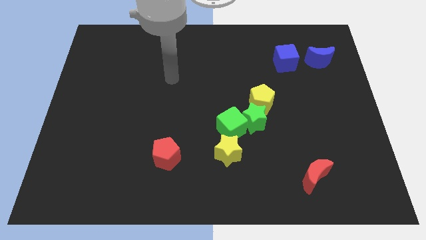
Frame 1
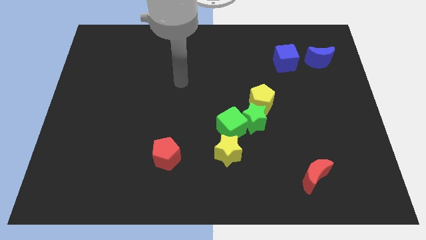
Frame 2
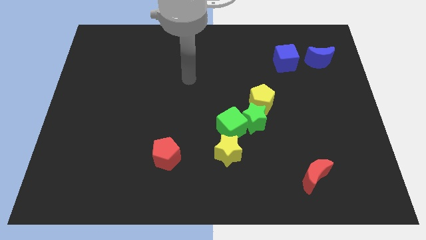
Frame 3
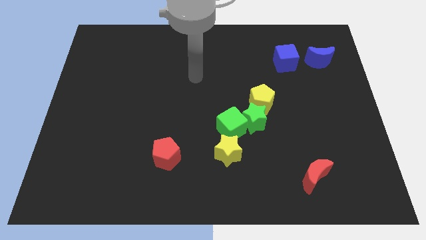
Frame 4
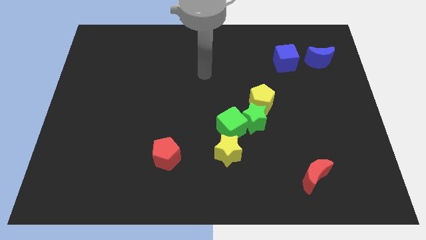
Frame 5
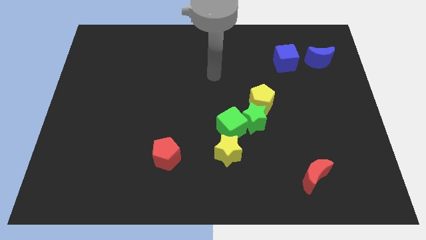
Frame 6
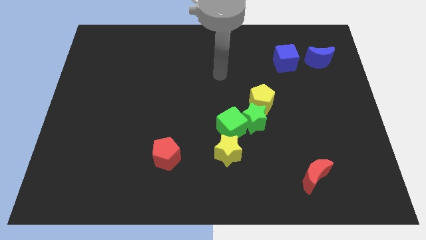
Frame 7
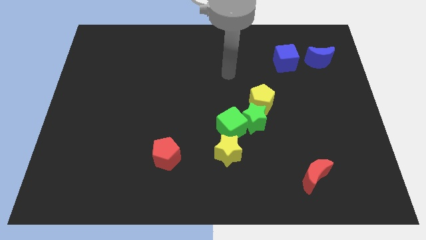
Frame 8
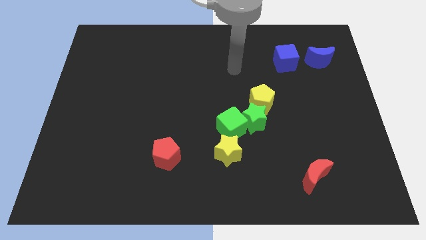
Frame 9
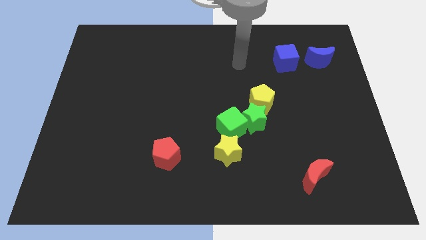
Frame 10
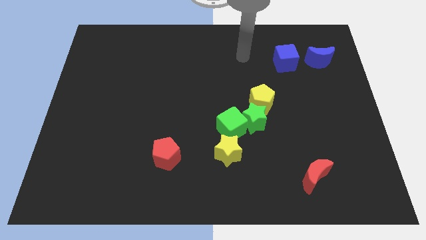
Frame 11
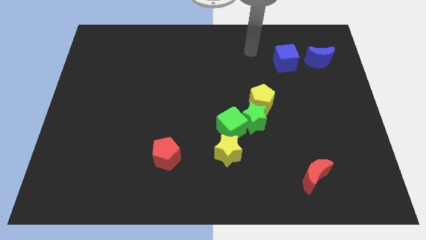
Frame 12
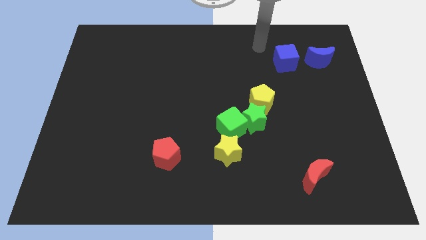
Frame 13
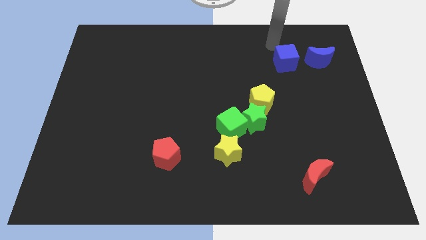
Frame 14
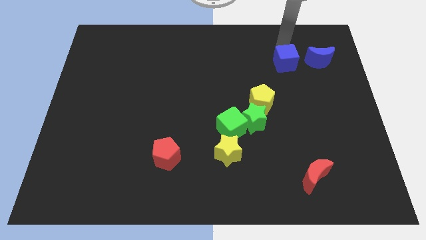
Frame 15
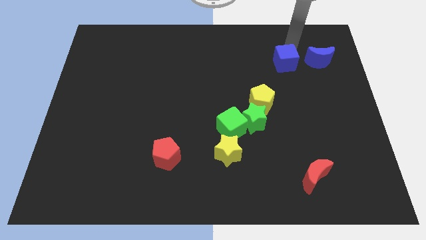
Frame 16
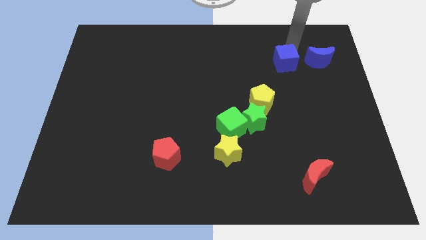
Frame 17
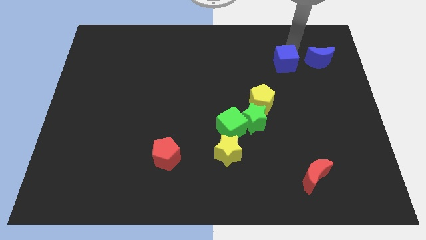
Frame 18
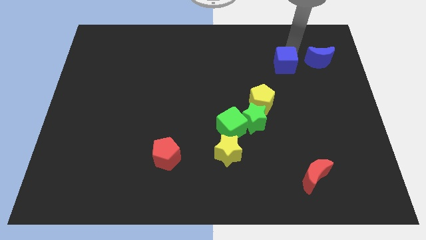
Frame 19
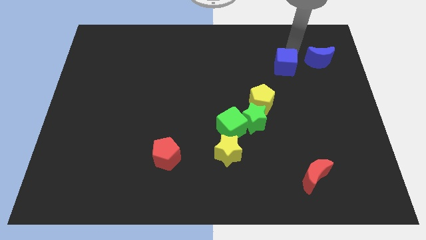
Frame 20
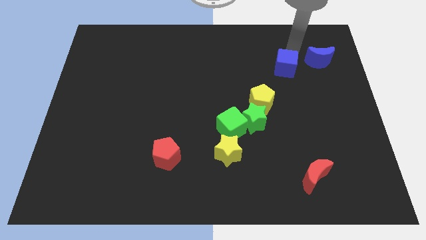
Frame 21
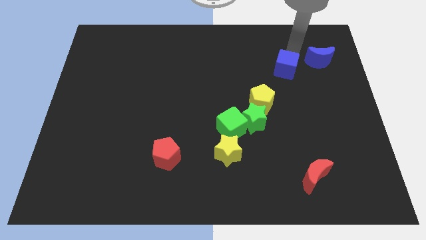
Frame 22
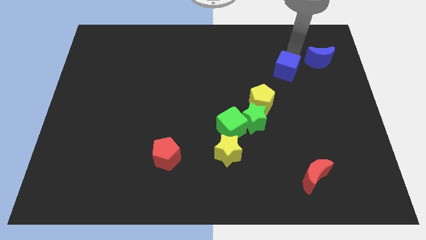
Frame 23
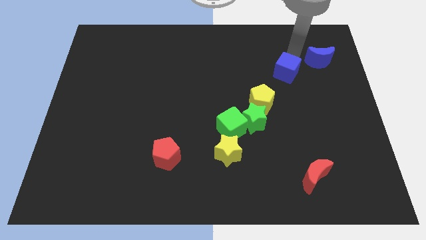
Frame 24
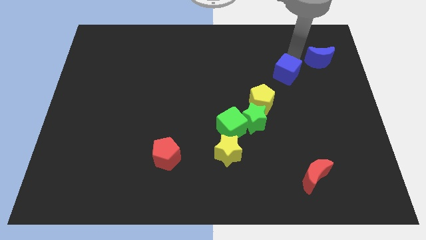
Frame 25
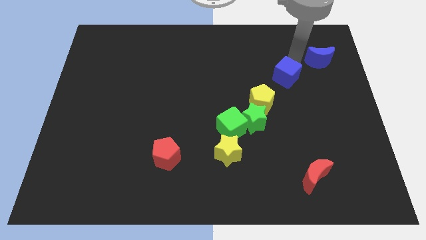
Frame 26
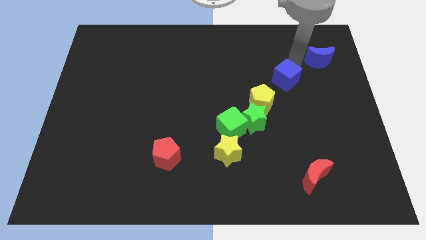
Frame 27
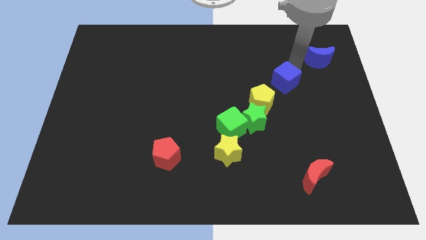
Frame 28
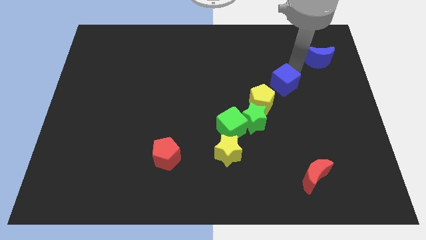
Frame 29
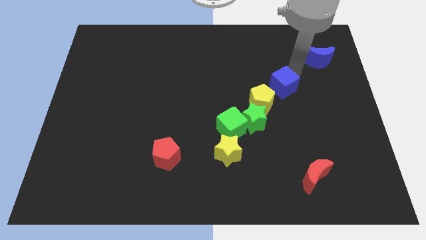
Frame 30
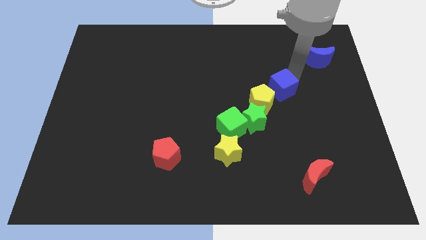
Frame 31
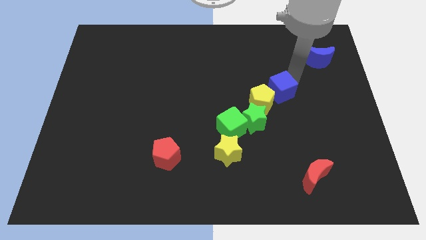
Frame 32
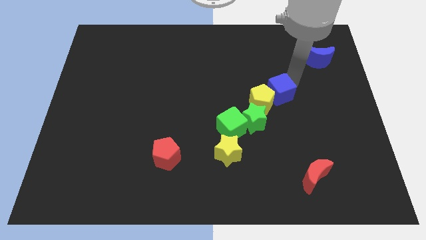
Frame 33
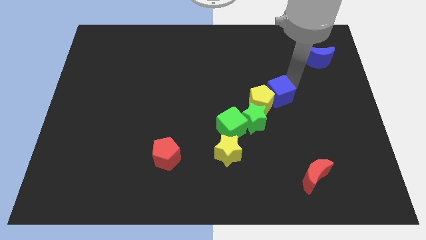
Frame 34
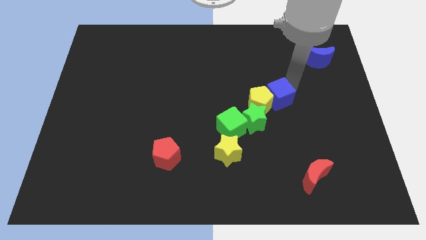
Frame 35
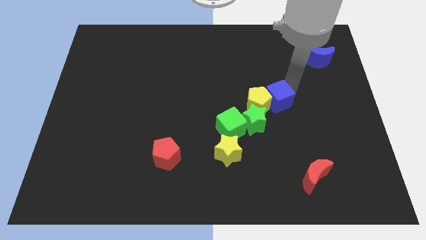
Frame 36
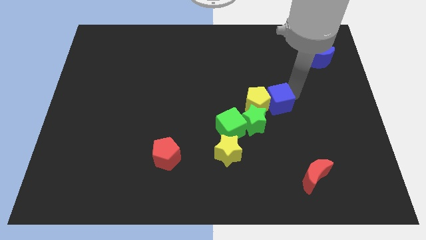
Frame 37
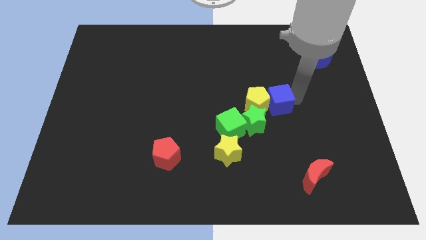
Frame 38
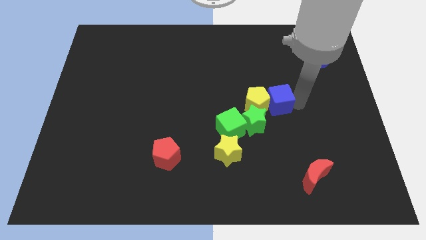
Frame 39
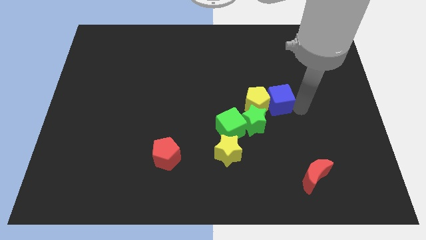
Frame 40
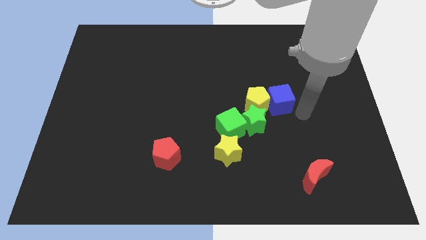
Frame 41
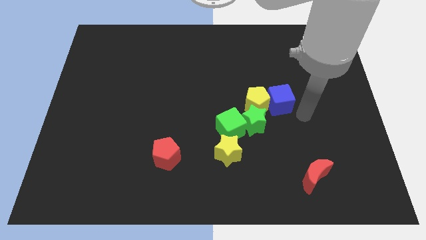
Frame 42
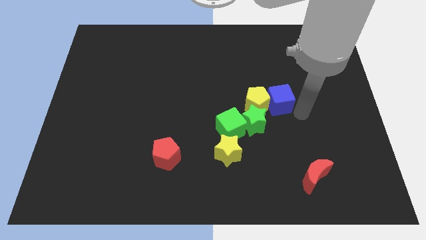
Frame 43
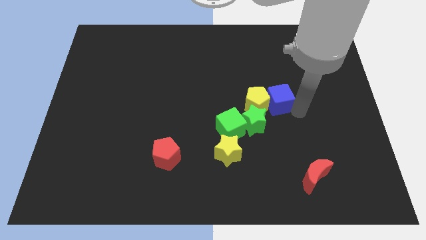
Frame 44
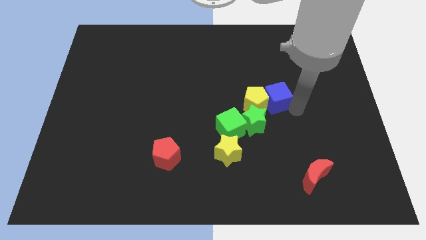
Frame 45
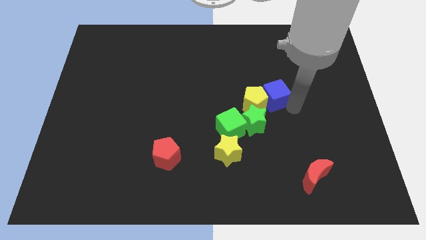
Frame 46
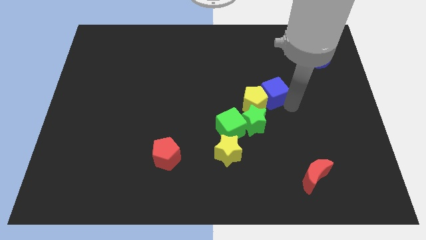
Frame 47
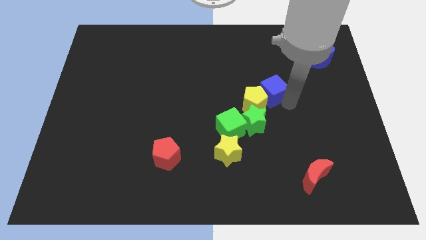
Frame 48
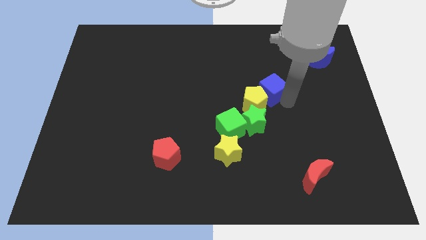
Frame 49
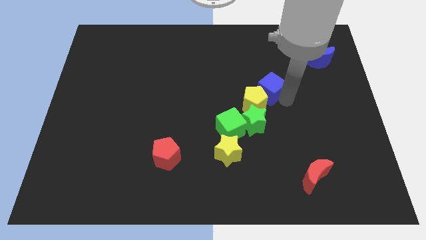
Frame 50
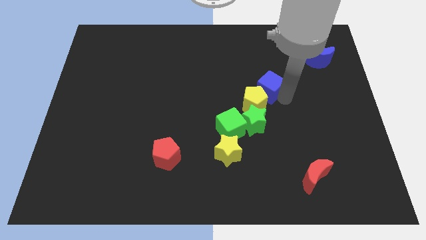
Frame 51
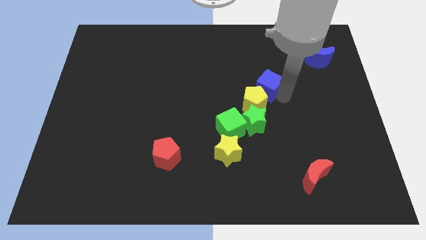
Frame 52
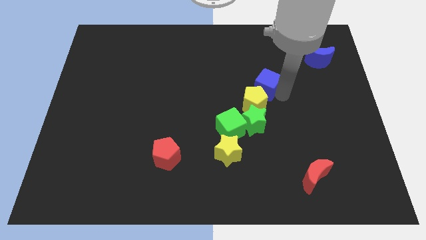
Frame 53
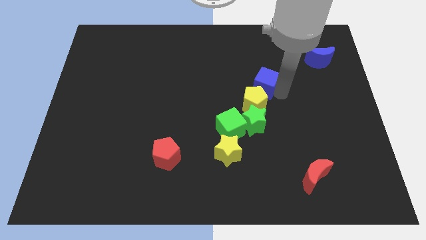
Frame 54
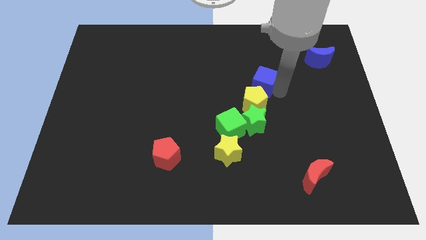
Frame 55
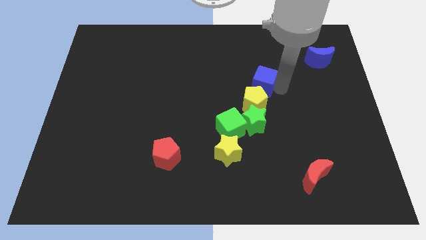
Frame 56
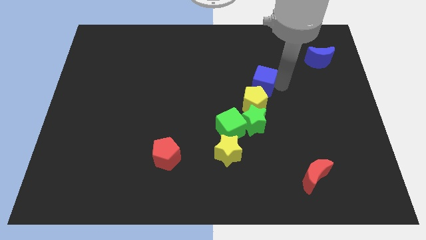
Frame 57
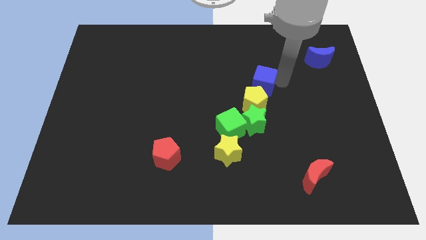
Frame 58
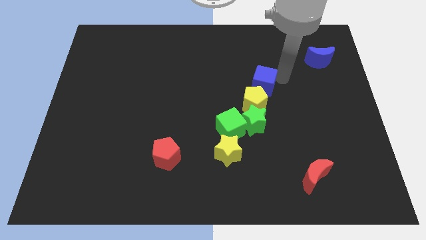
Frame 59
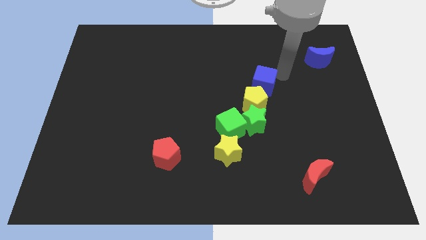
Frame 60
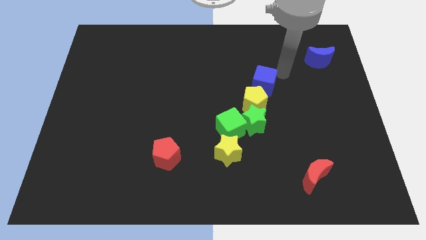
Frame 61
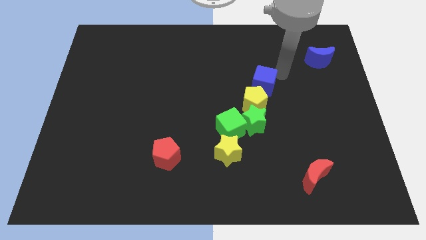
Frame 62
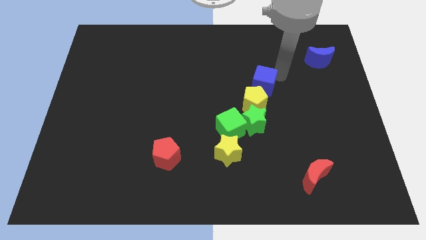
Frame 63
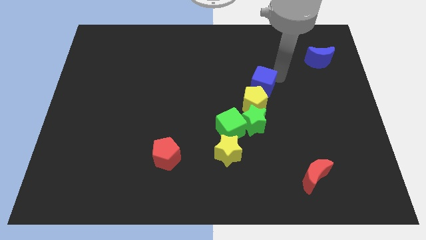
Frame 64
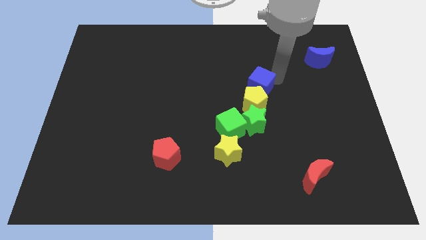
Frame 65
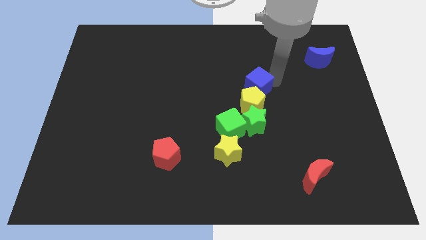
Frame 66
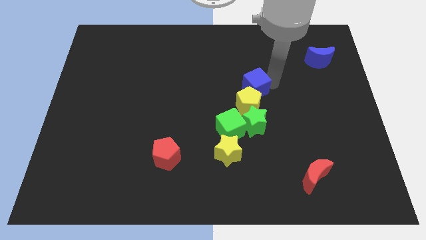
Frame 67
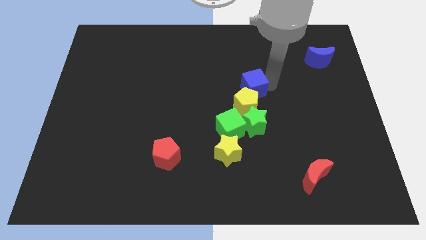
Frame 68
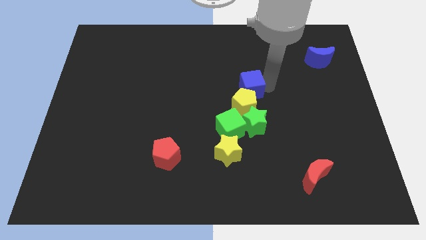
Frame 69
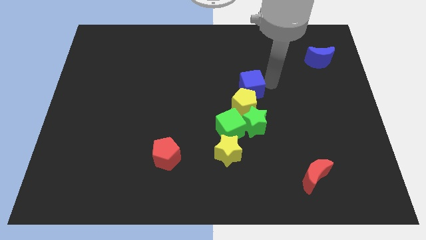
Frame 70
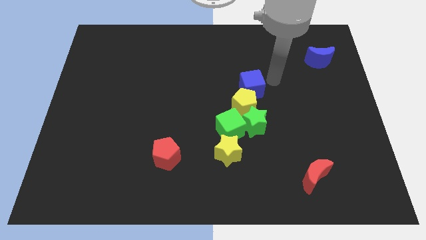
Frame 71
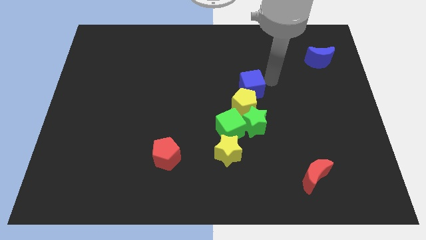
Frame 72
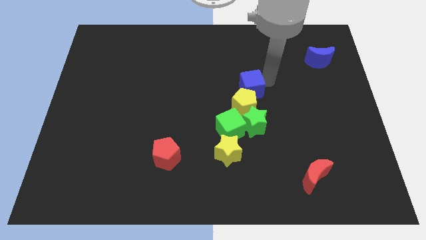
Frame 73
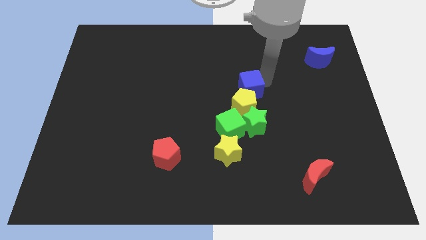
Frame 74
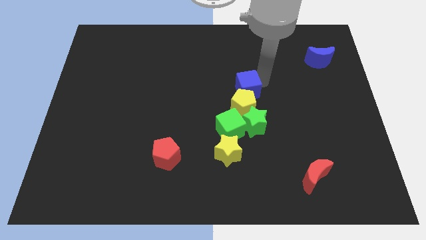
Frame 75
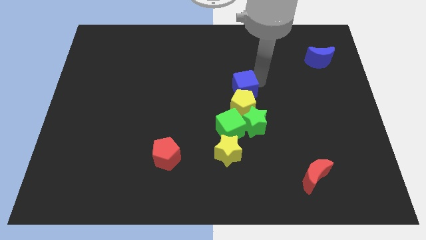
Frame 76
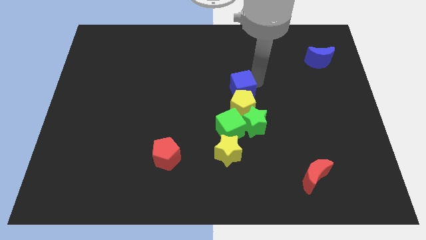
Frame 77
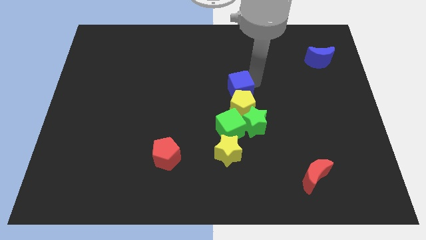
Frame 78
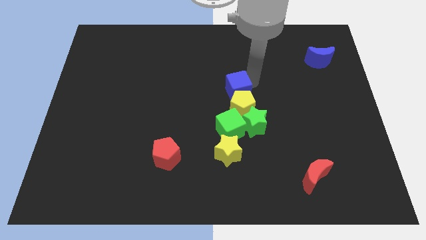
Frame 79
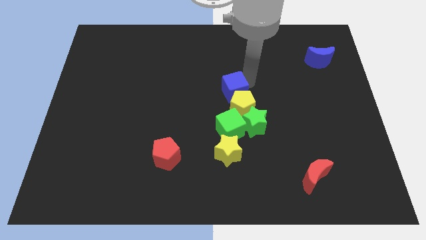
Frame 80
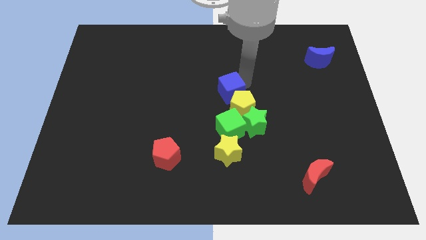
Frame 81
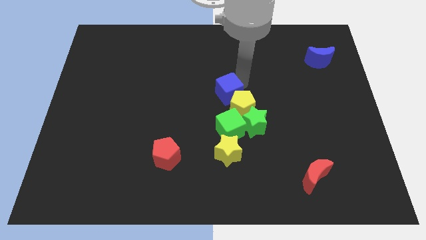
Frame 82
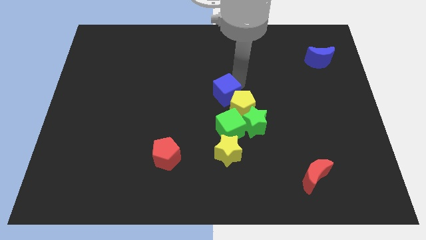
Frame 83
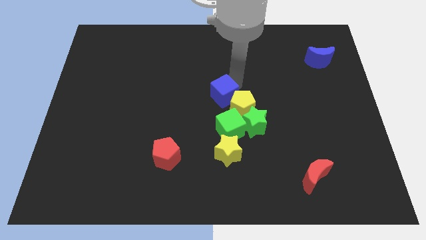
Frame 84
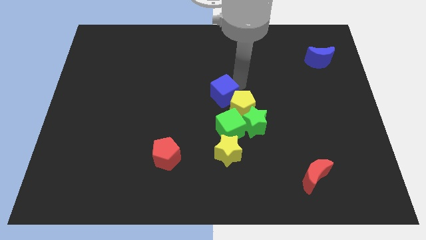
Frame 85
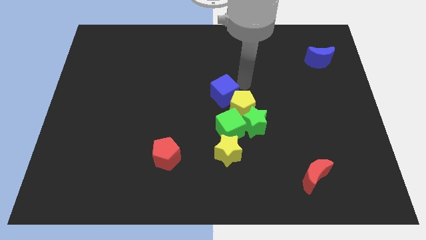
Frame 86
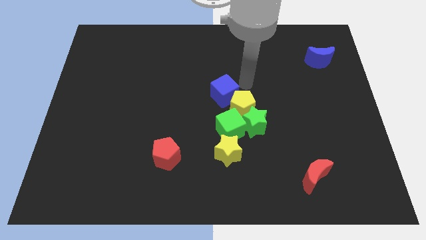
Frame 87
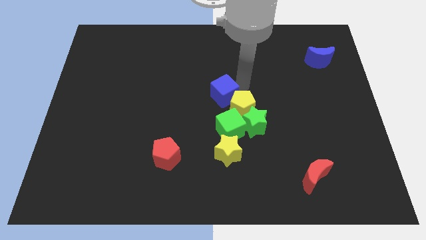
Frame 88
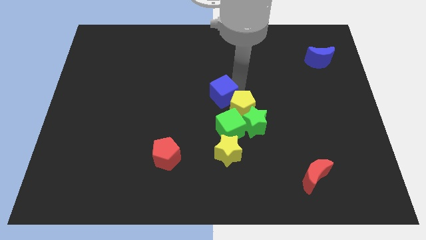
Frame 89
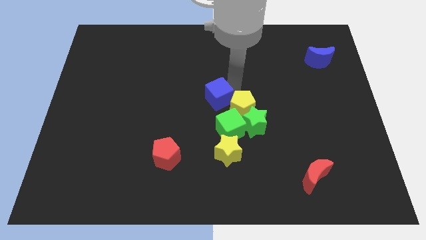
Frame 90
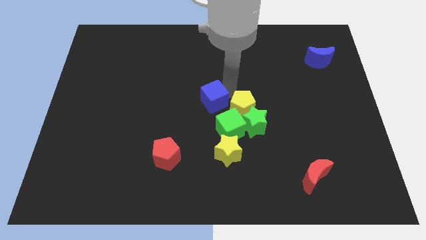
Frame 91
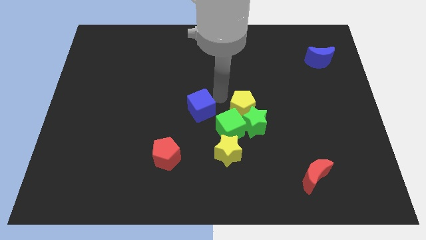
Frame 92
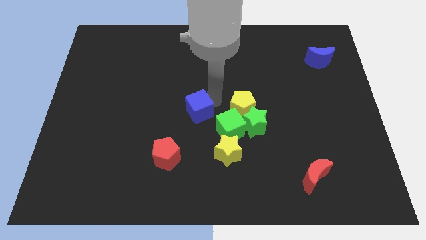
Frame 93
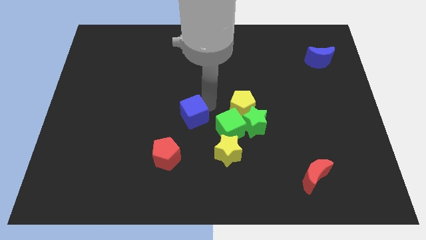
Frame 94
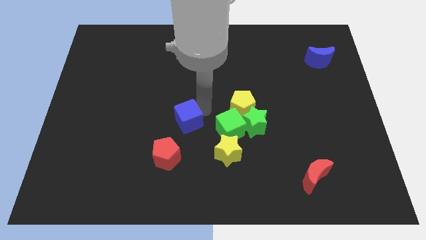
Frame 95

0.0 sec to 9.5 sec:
put the blue cube above the red pentagon
